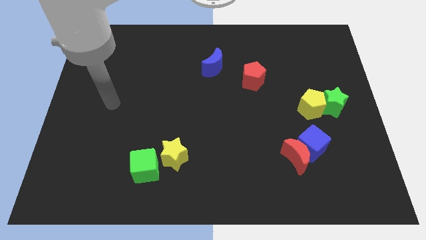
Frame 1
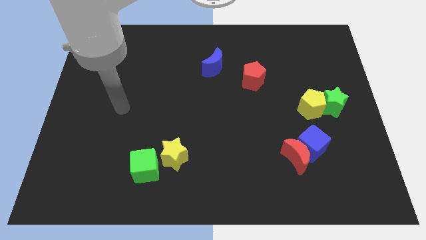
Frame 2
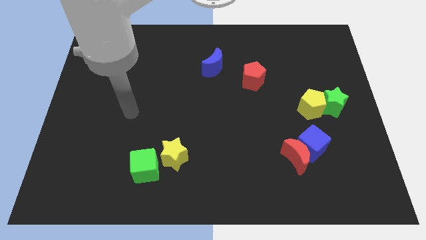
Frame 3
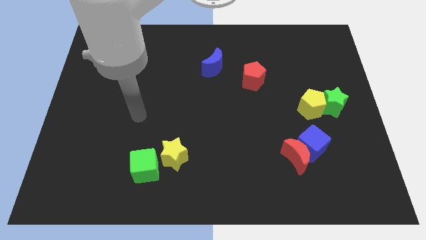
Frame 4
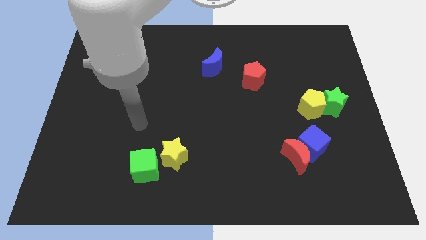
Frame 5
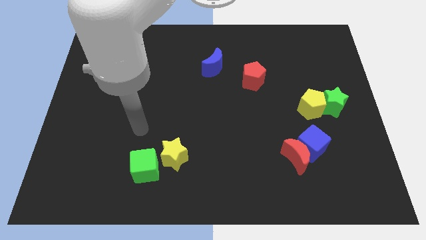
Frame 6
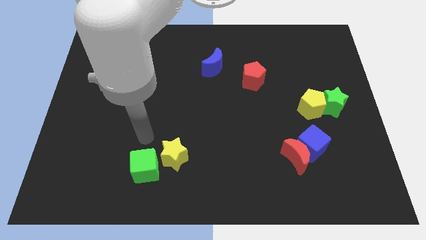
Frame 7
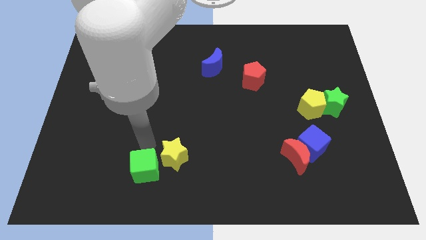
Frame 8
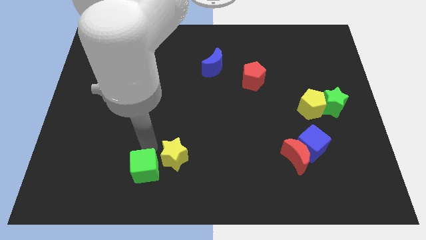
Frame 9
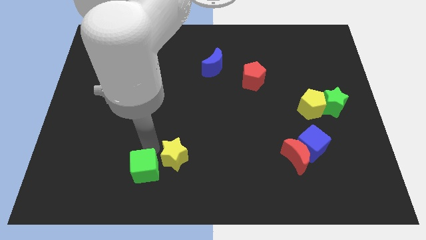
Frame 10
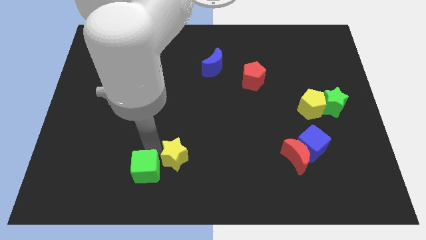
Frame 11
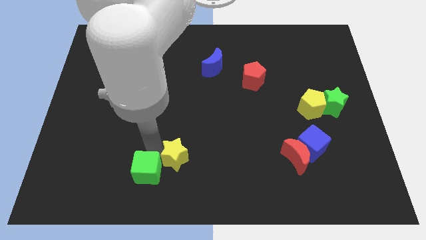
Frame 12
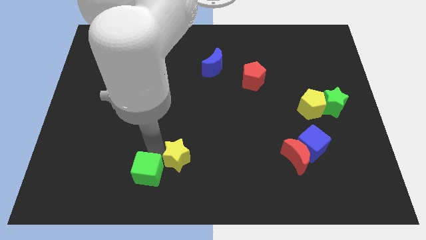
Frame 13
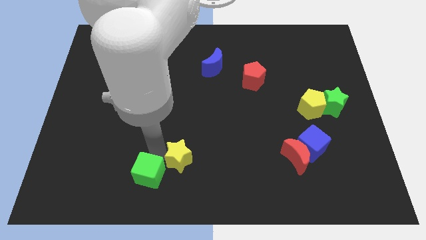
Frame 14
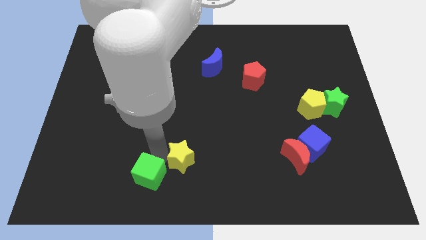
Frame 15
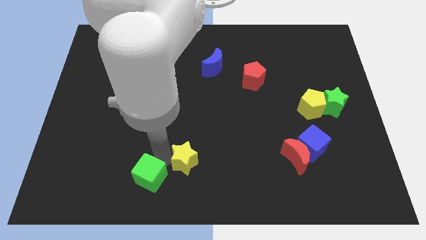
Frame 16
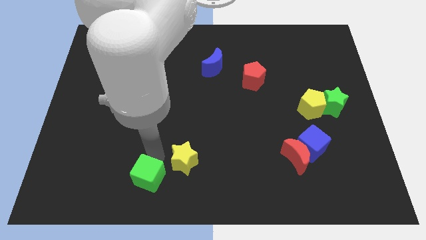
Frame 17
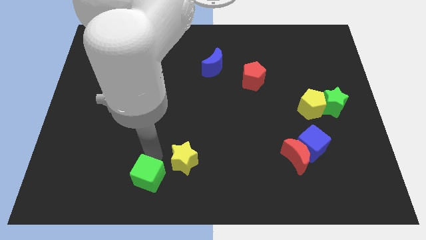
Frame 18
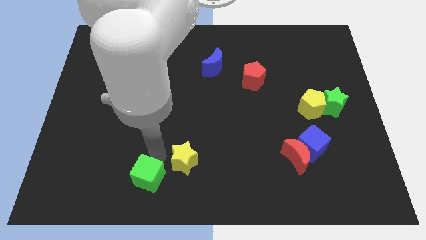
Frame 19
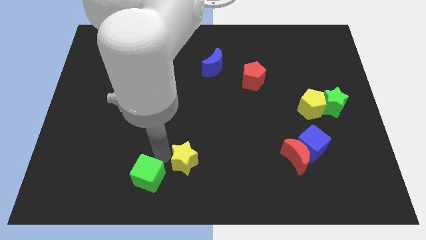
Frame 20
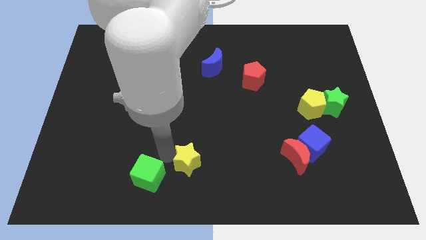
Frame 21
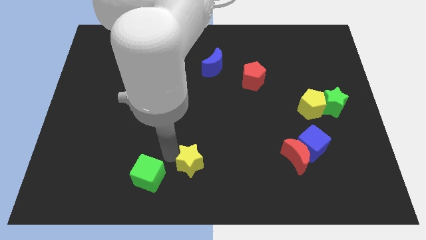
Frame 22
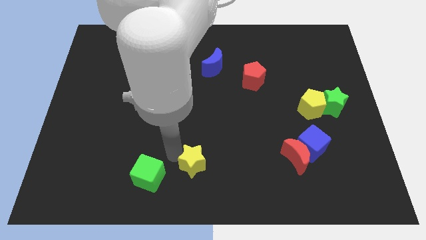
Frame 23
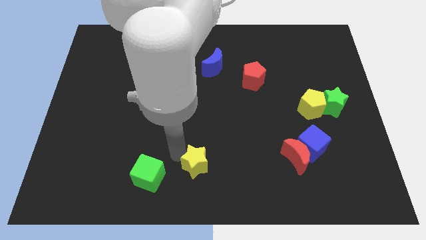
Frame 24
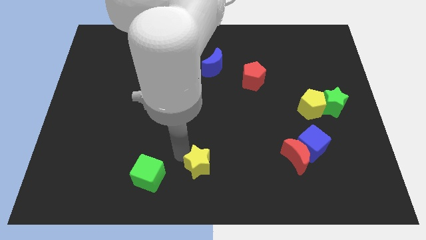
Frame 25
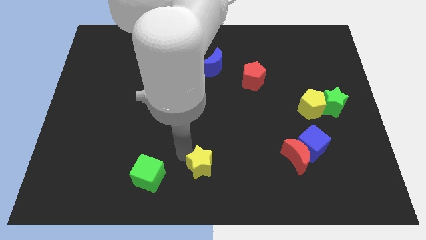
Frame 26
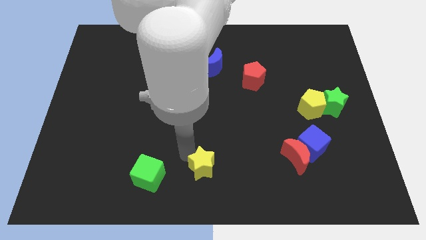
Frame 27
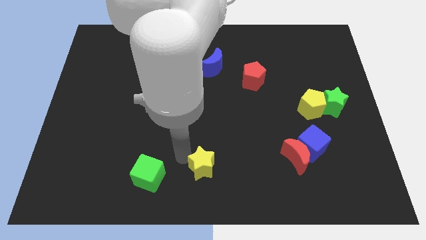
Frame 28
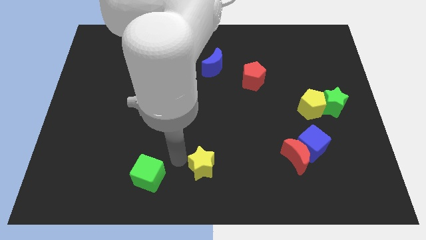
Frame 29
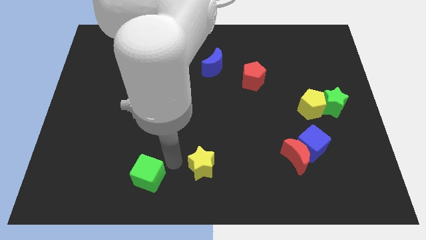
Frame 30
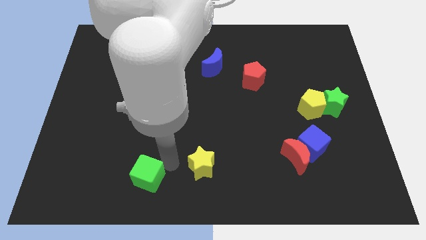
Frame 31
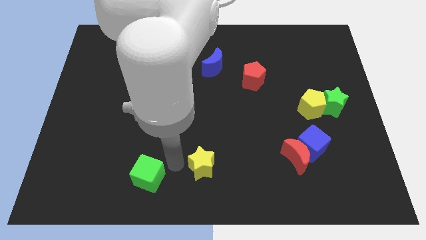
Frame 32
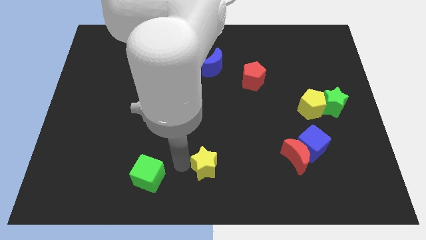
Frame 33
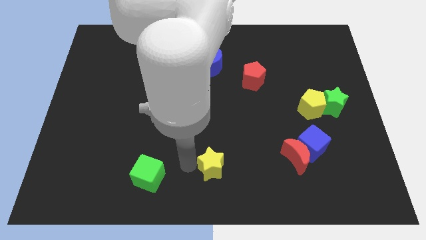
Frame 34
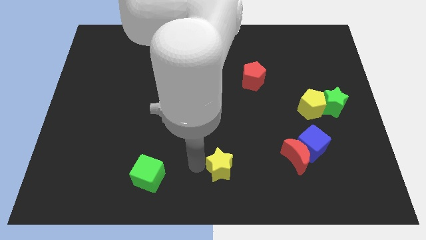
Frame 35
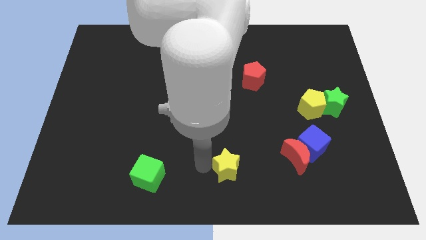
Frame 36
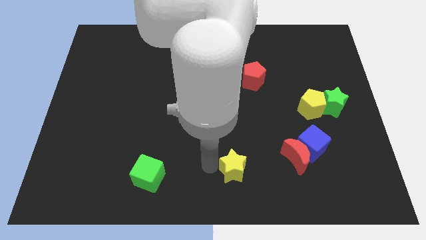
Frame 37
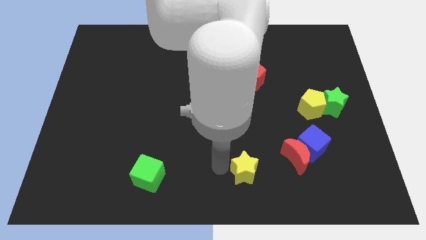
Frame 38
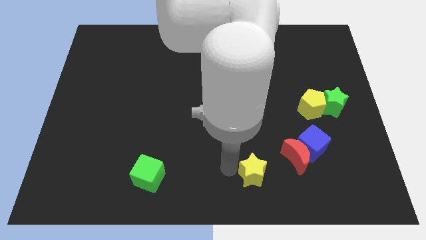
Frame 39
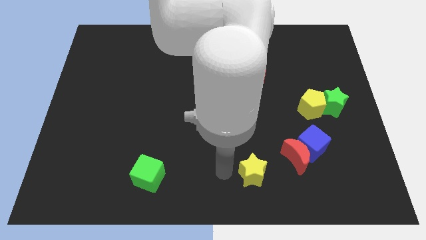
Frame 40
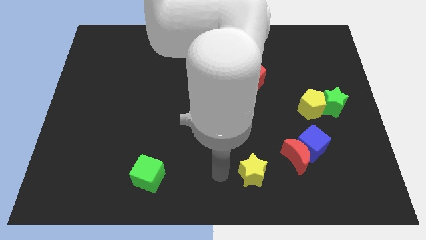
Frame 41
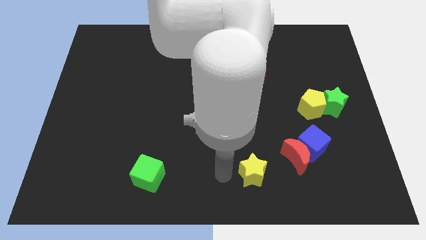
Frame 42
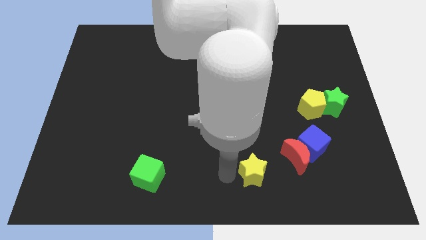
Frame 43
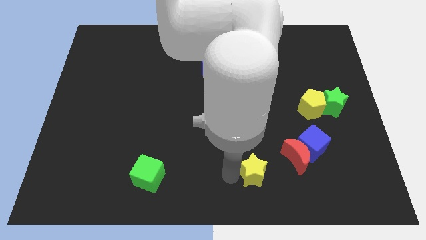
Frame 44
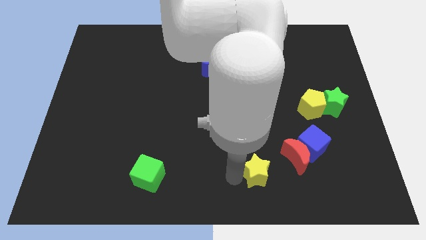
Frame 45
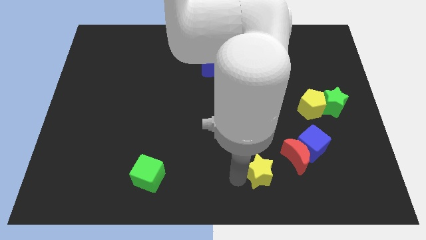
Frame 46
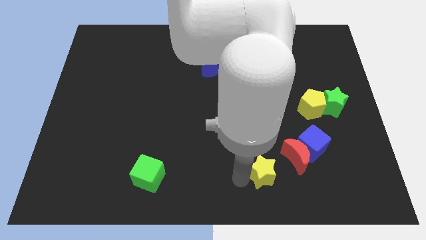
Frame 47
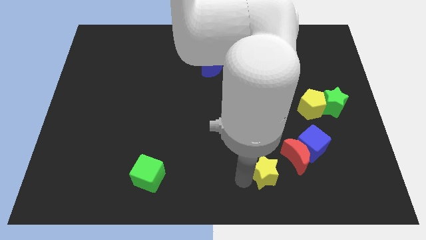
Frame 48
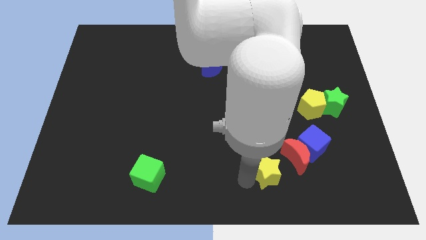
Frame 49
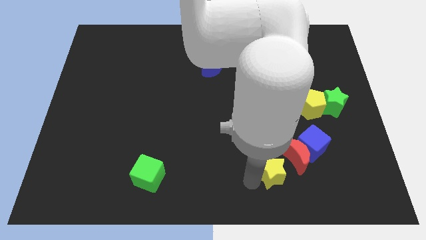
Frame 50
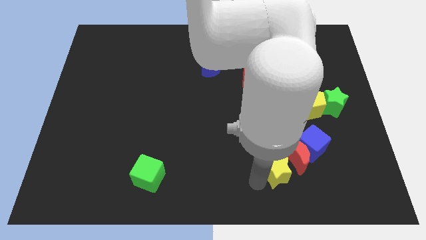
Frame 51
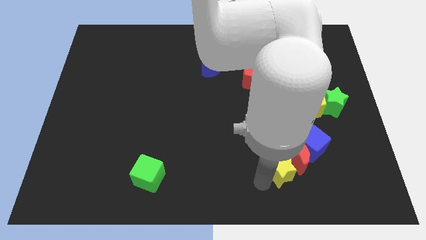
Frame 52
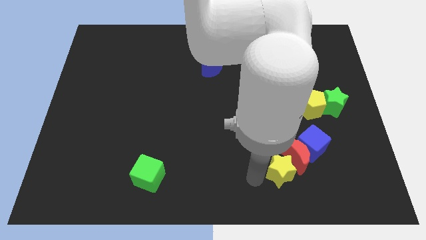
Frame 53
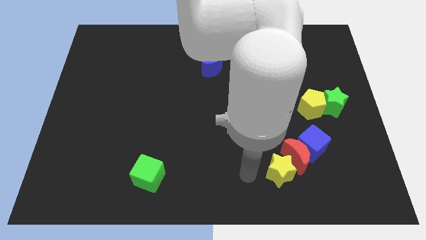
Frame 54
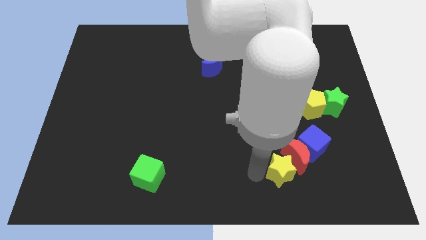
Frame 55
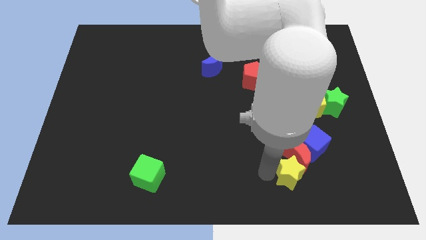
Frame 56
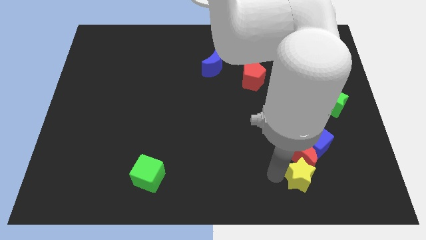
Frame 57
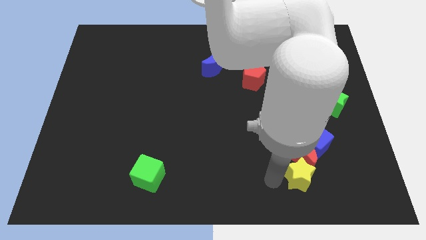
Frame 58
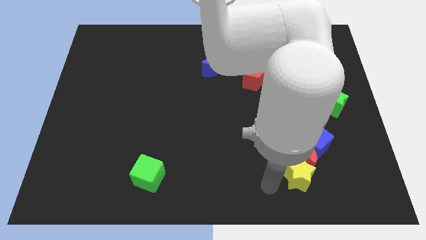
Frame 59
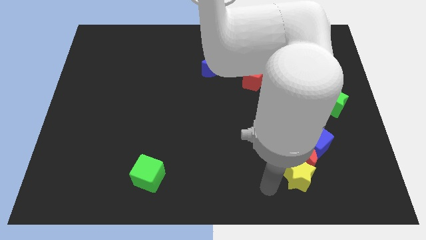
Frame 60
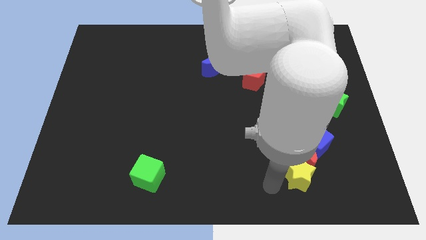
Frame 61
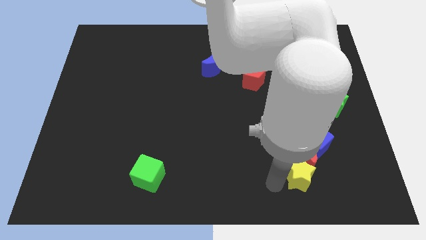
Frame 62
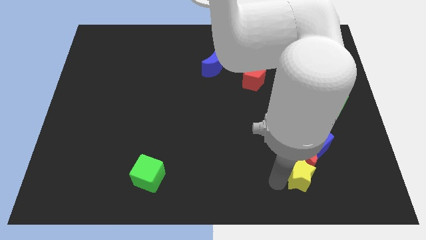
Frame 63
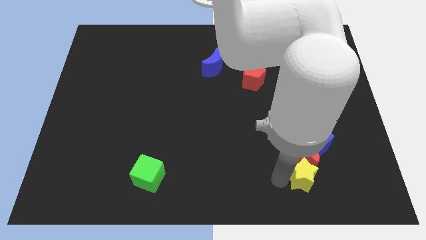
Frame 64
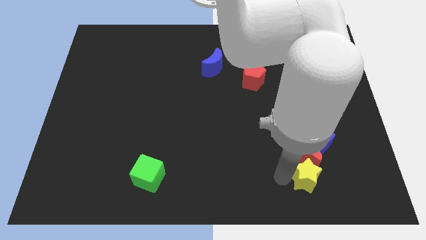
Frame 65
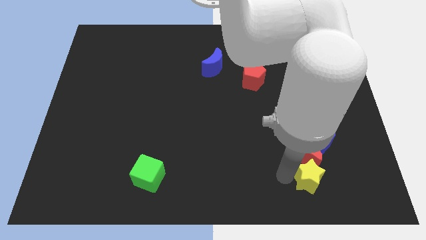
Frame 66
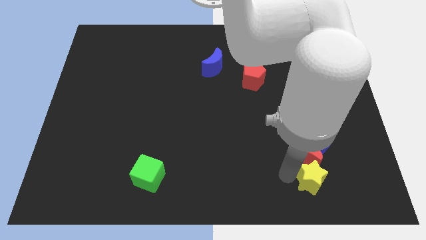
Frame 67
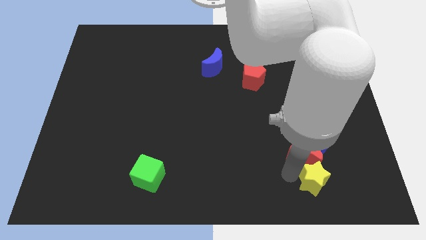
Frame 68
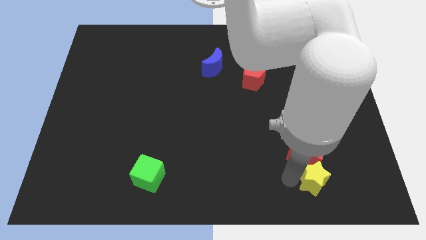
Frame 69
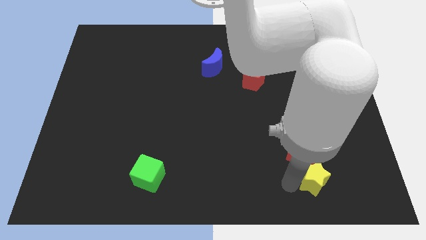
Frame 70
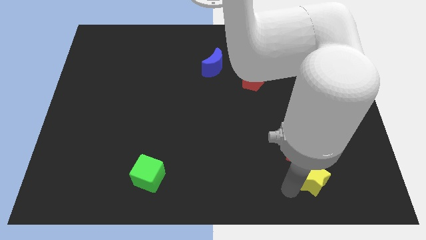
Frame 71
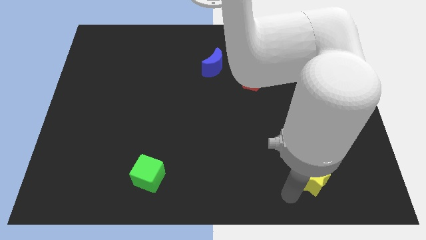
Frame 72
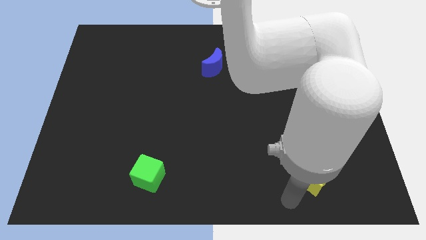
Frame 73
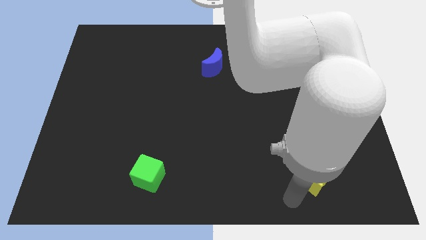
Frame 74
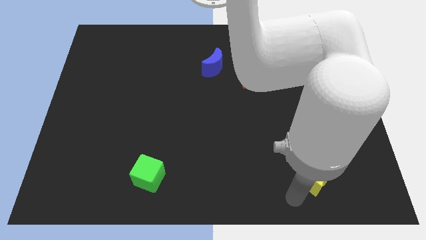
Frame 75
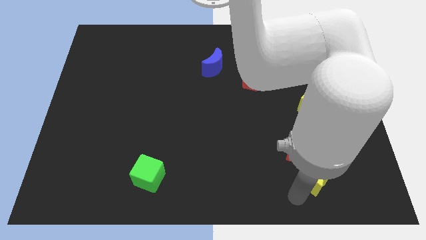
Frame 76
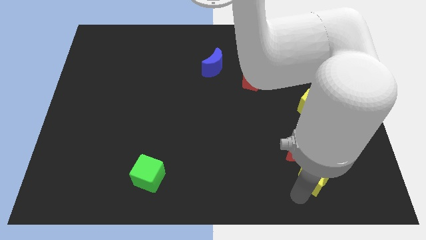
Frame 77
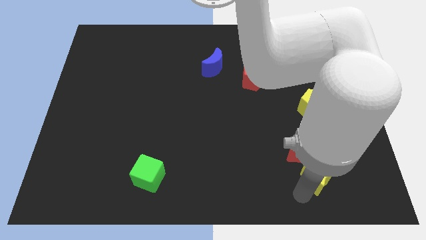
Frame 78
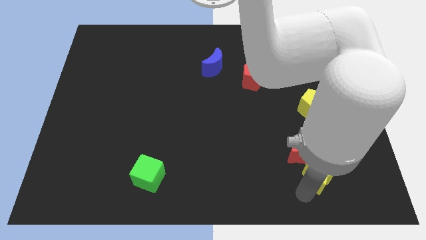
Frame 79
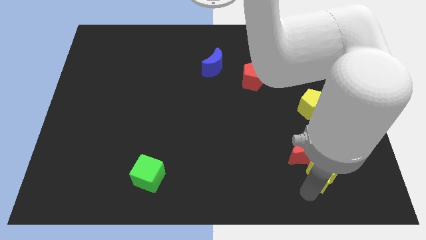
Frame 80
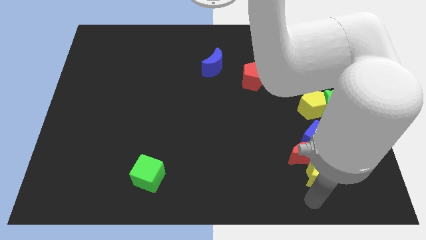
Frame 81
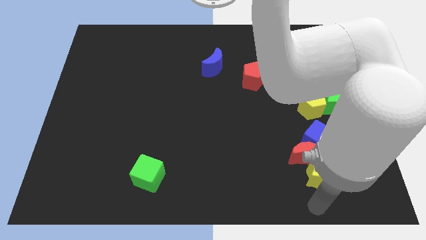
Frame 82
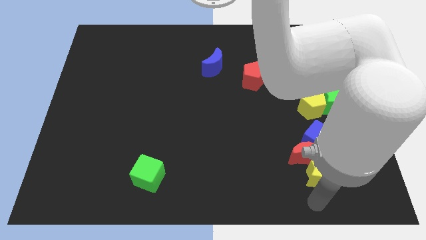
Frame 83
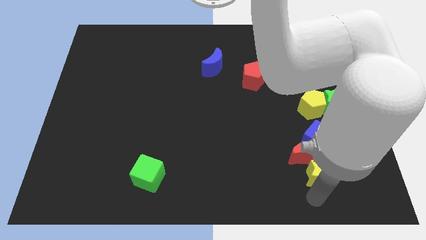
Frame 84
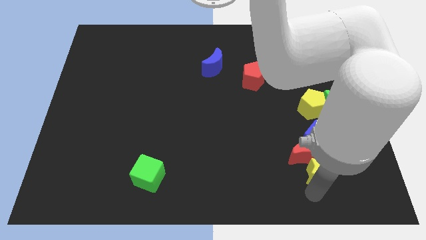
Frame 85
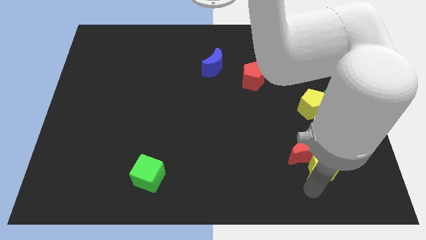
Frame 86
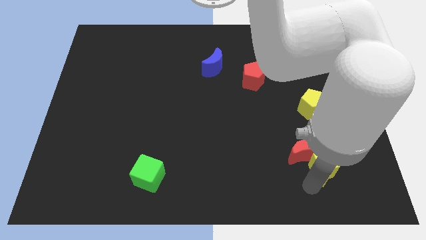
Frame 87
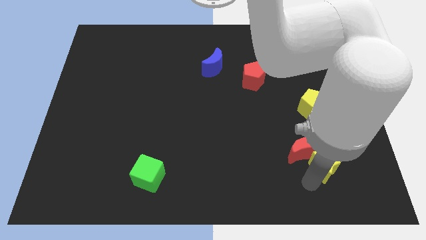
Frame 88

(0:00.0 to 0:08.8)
slide the yellow star to the bottom of the yellow pentagon
